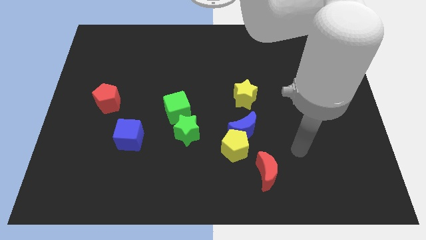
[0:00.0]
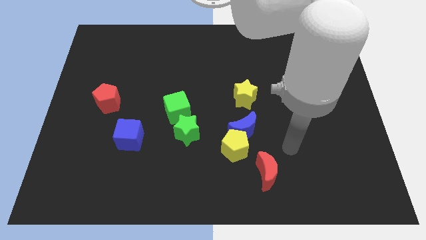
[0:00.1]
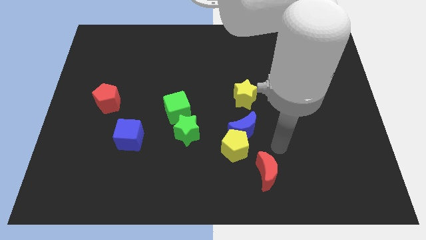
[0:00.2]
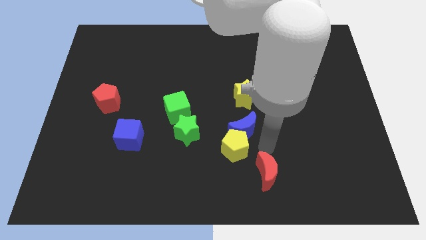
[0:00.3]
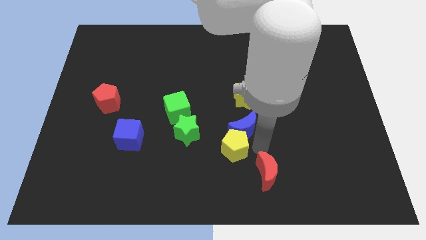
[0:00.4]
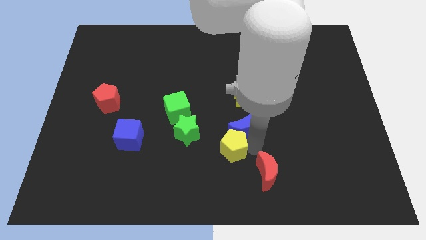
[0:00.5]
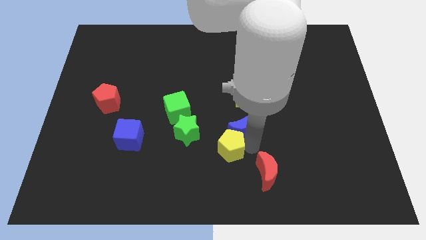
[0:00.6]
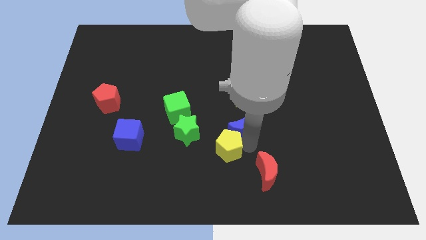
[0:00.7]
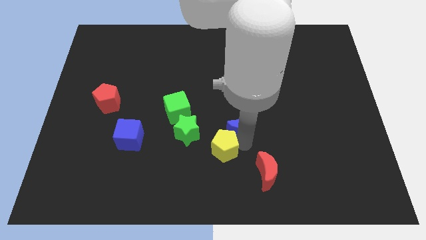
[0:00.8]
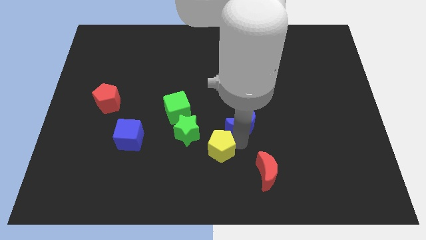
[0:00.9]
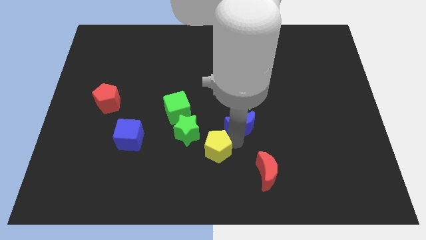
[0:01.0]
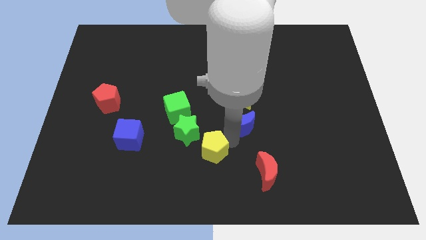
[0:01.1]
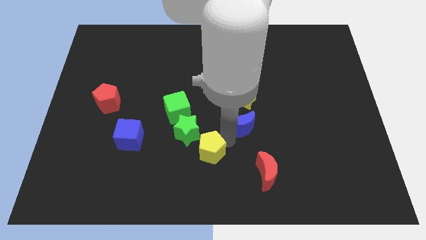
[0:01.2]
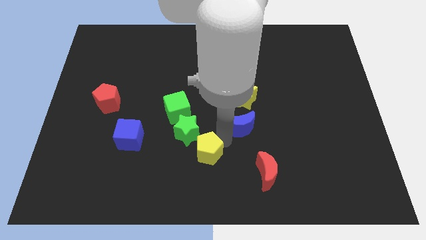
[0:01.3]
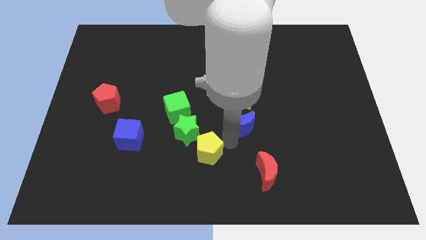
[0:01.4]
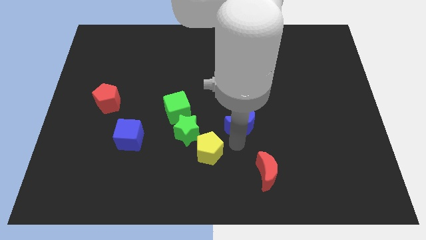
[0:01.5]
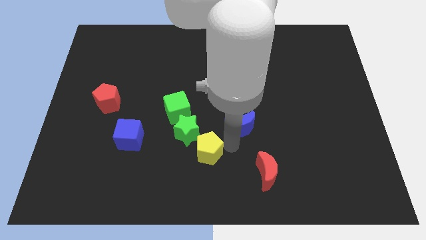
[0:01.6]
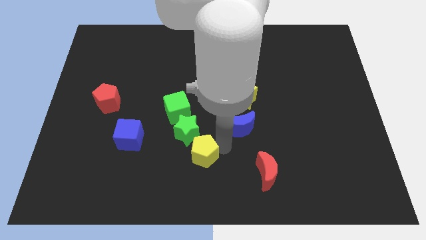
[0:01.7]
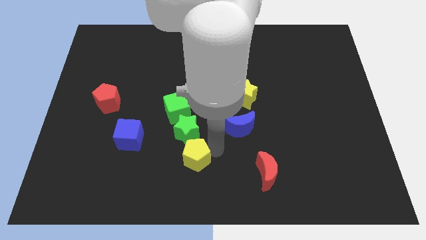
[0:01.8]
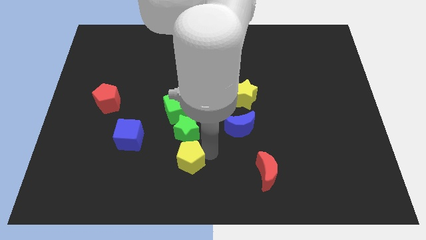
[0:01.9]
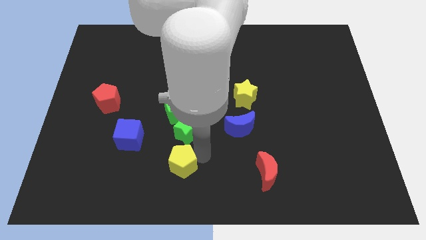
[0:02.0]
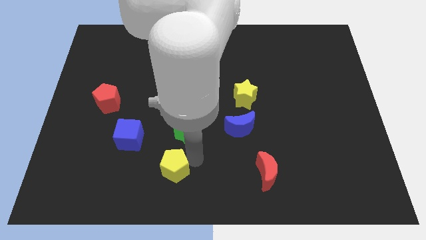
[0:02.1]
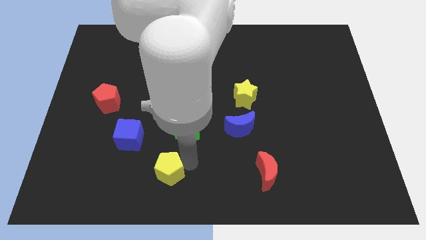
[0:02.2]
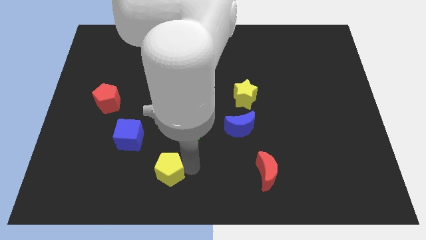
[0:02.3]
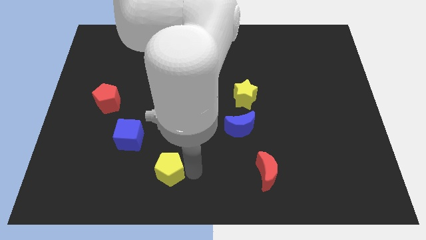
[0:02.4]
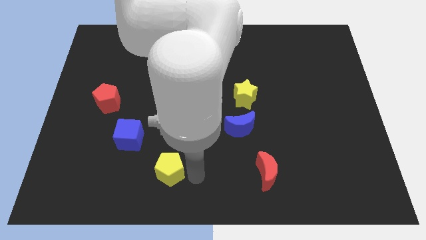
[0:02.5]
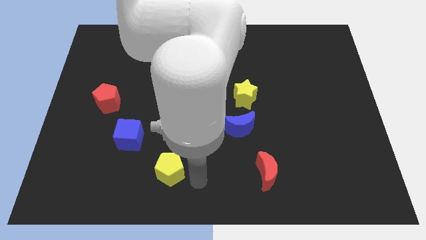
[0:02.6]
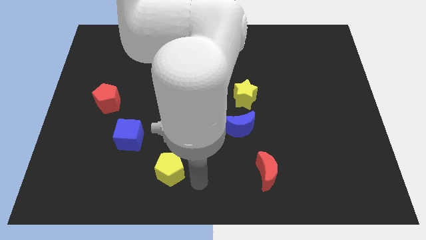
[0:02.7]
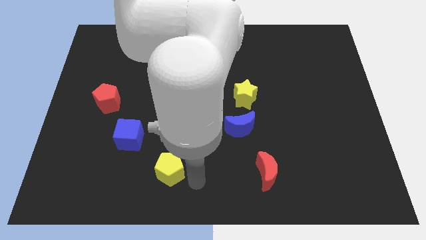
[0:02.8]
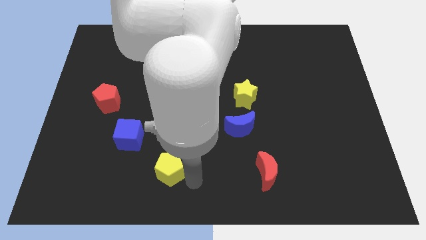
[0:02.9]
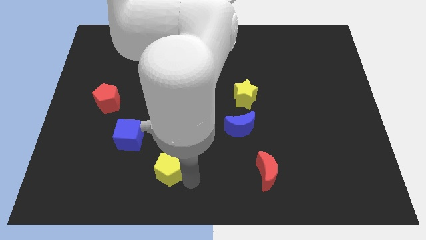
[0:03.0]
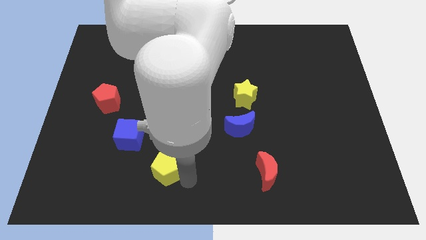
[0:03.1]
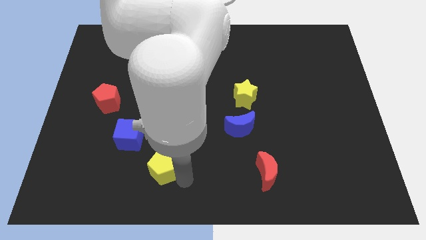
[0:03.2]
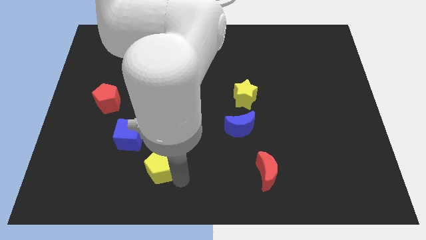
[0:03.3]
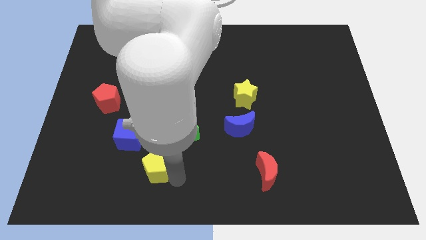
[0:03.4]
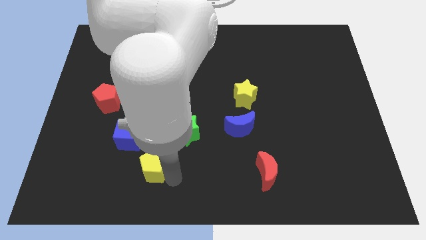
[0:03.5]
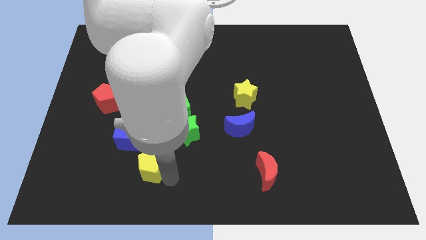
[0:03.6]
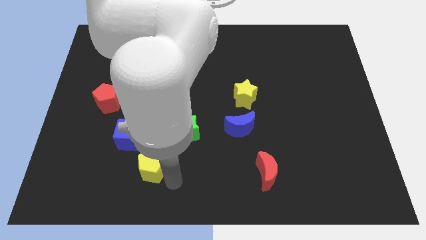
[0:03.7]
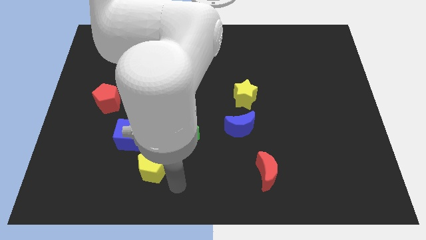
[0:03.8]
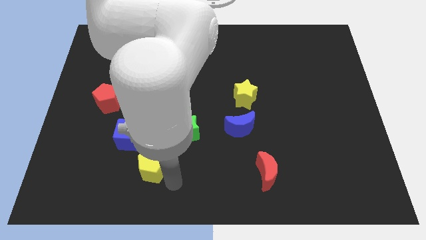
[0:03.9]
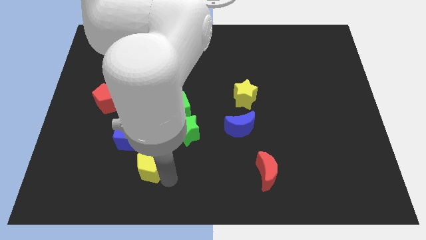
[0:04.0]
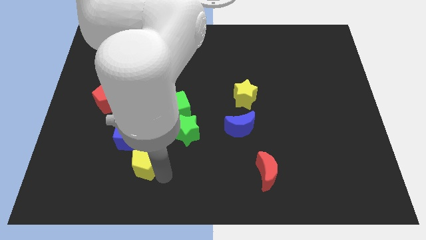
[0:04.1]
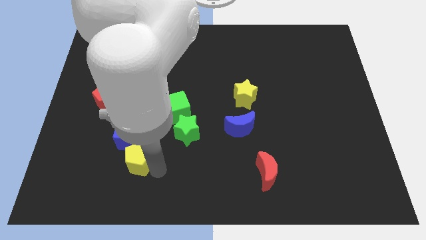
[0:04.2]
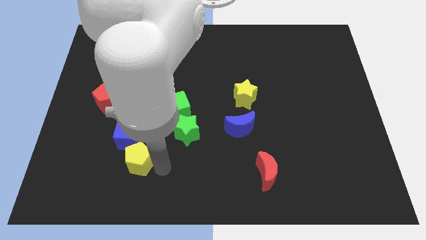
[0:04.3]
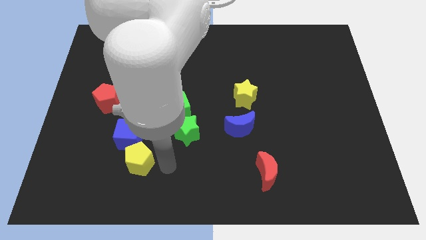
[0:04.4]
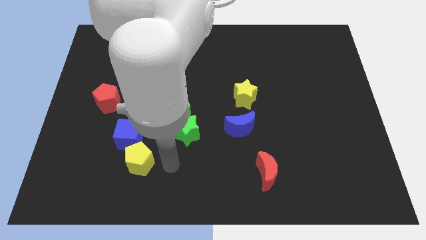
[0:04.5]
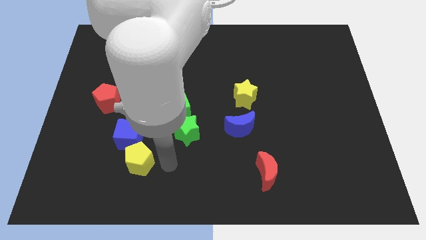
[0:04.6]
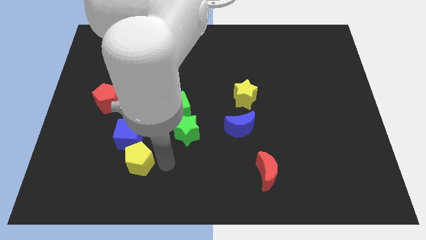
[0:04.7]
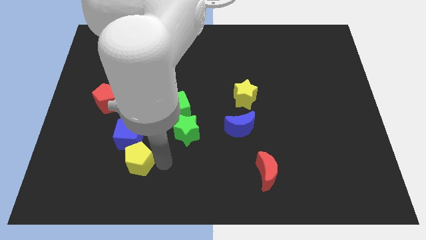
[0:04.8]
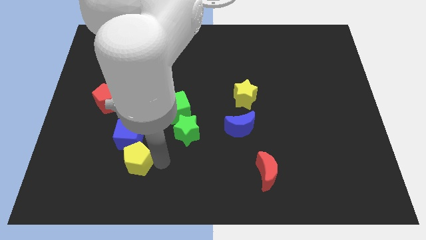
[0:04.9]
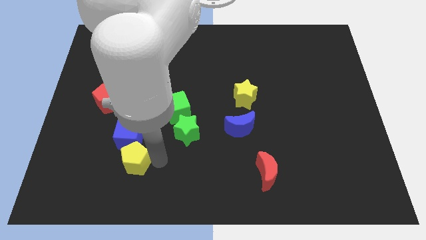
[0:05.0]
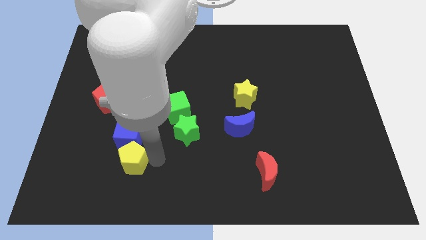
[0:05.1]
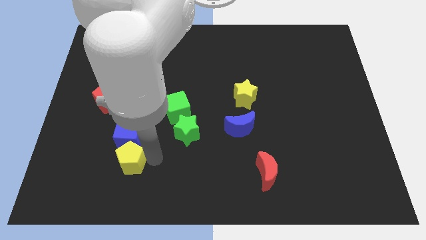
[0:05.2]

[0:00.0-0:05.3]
push the yellow pentagon to the bottom left side of the blue cube

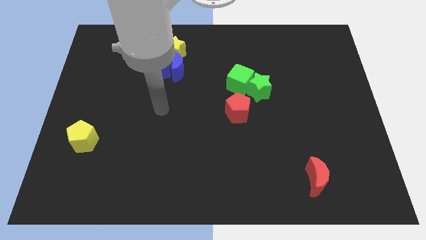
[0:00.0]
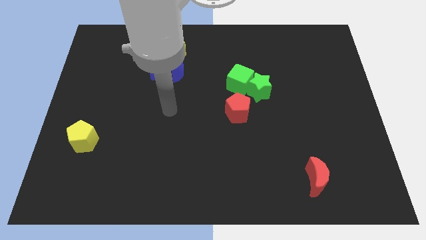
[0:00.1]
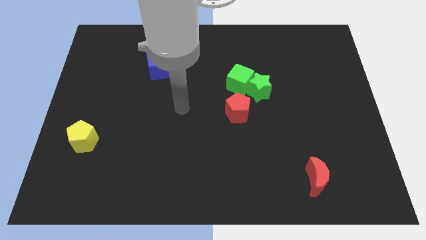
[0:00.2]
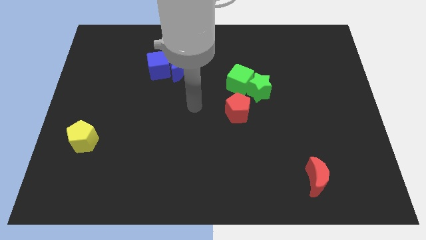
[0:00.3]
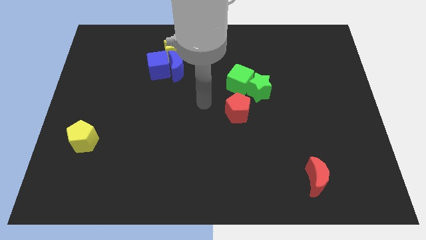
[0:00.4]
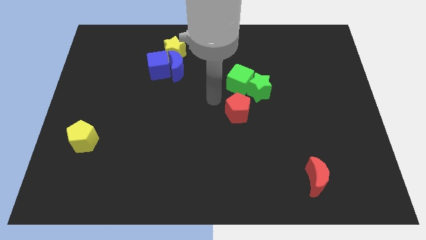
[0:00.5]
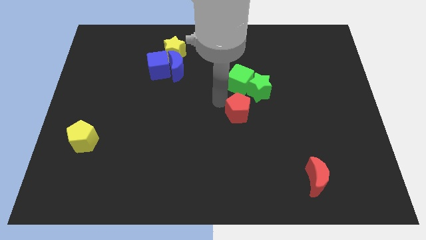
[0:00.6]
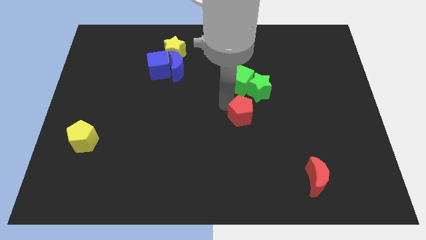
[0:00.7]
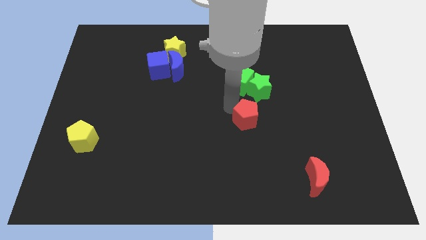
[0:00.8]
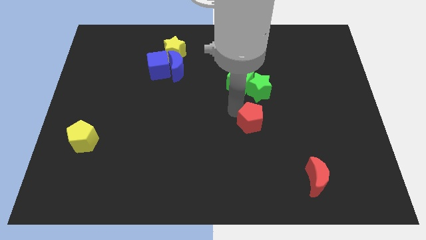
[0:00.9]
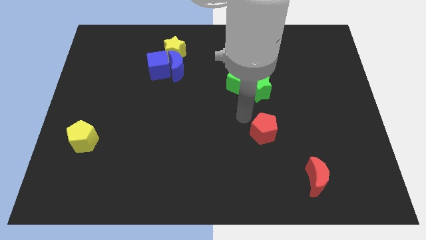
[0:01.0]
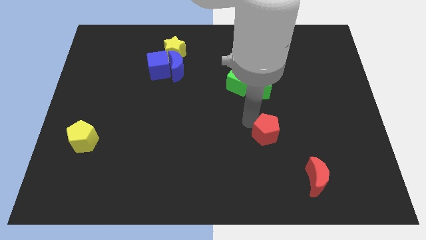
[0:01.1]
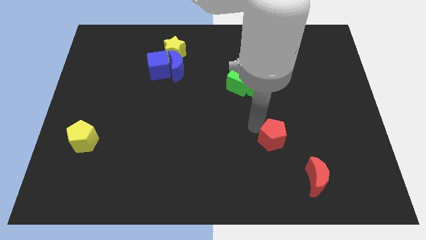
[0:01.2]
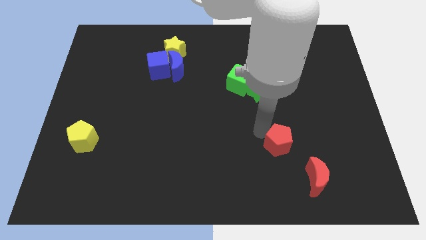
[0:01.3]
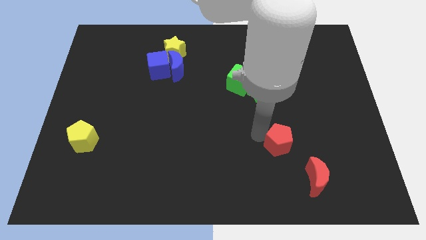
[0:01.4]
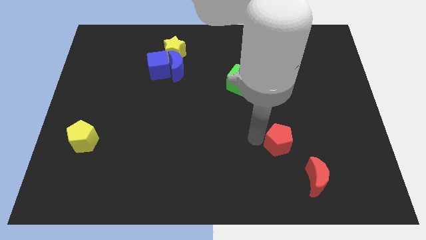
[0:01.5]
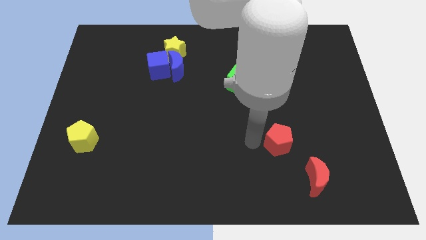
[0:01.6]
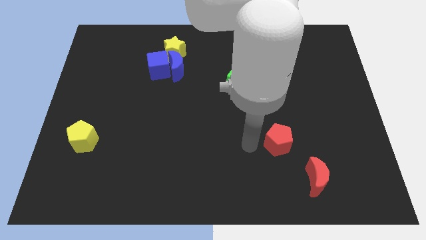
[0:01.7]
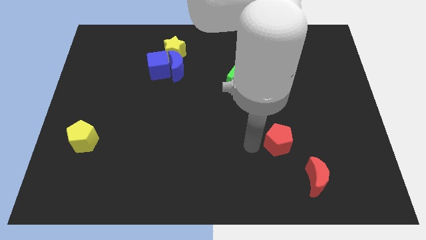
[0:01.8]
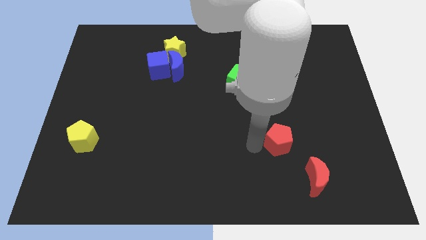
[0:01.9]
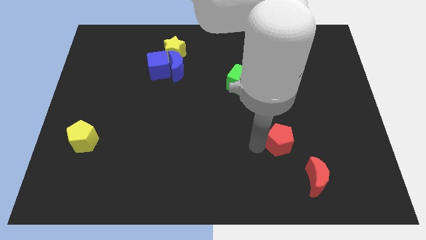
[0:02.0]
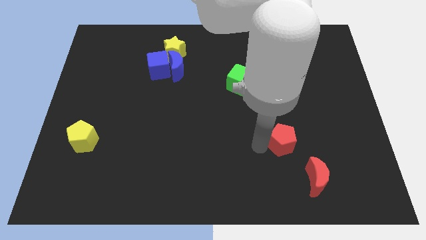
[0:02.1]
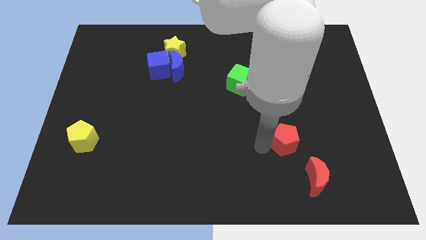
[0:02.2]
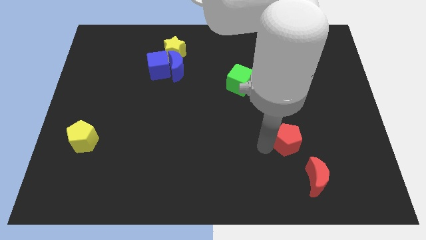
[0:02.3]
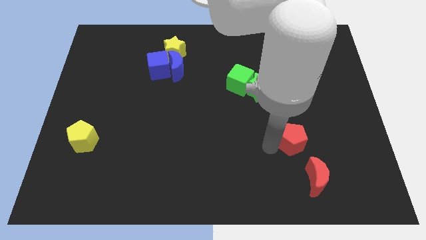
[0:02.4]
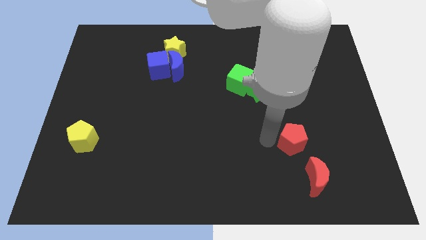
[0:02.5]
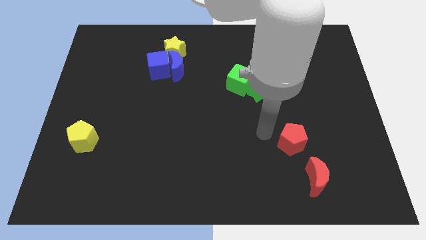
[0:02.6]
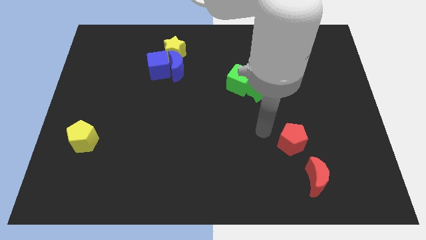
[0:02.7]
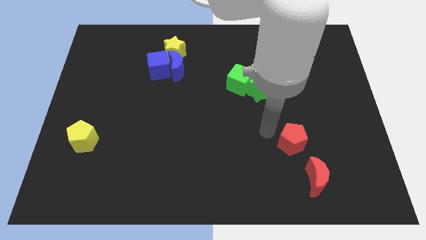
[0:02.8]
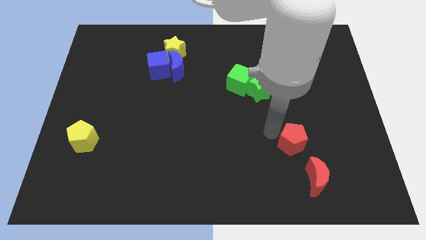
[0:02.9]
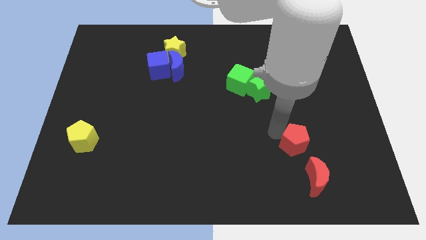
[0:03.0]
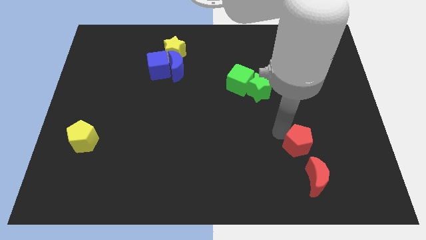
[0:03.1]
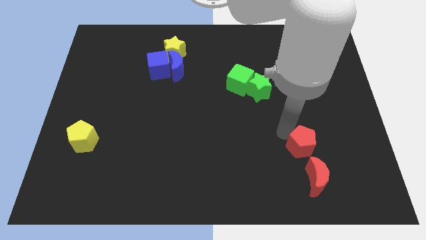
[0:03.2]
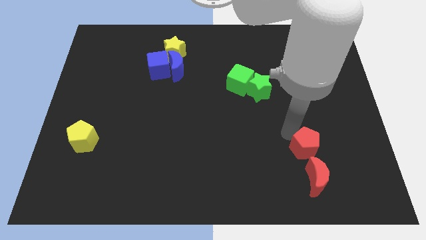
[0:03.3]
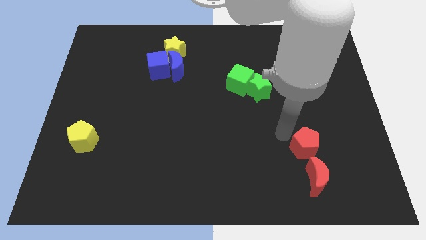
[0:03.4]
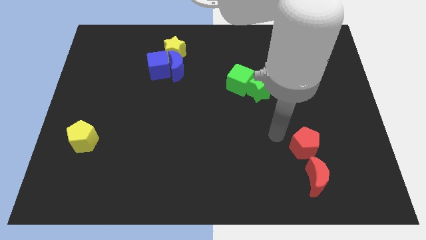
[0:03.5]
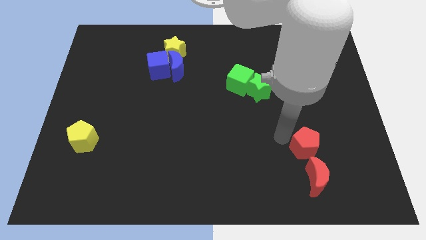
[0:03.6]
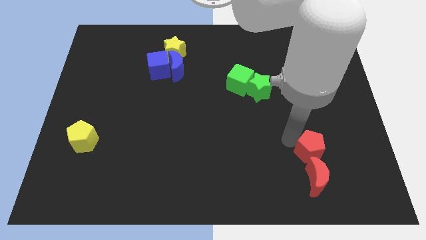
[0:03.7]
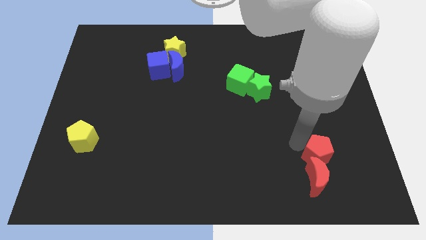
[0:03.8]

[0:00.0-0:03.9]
move the red pentagon to the top right side of the red moon
